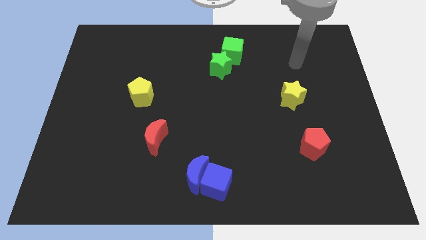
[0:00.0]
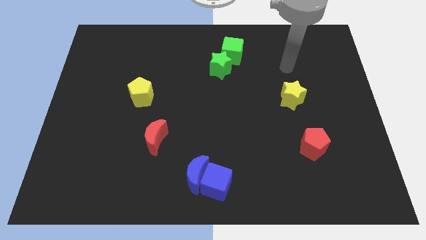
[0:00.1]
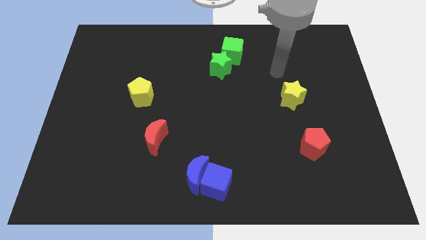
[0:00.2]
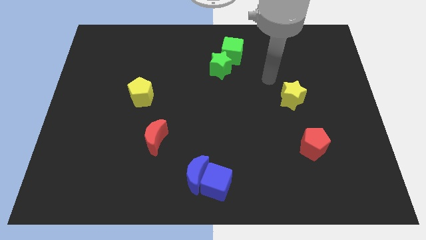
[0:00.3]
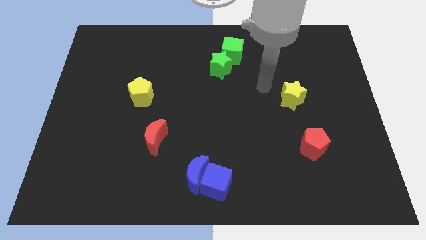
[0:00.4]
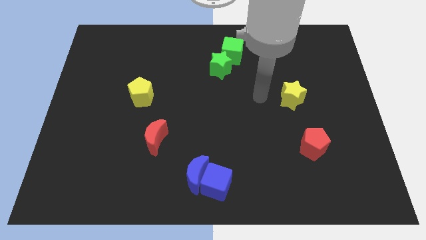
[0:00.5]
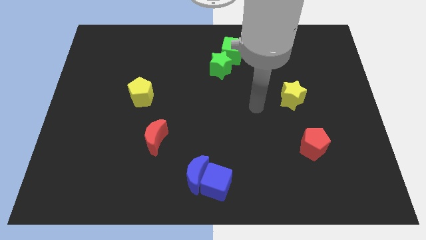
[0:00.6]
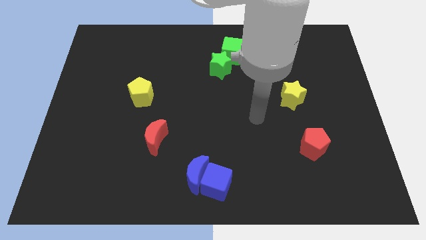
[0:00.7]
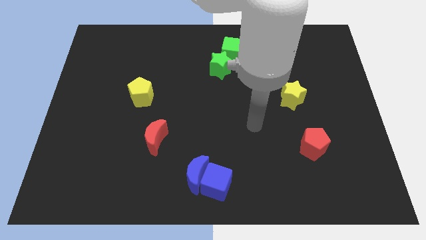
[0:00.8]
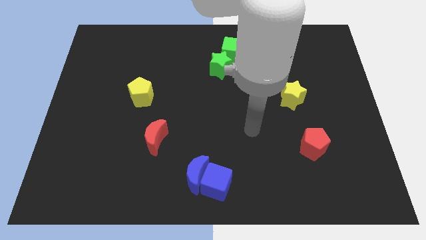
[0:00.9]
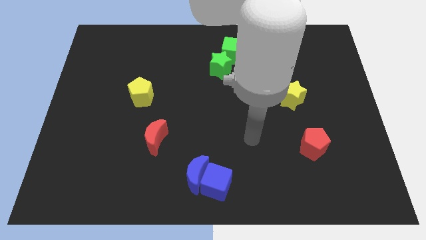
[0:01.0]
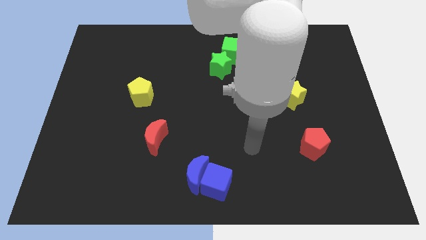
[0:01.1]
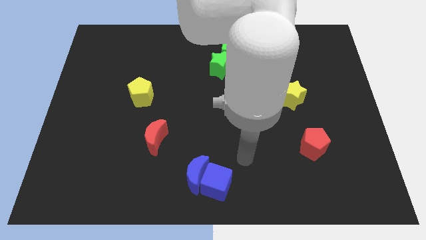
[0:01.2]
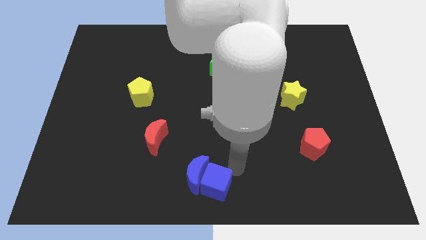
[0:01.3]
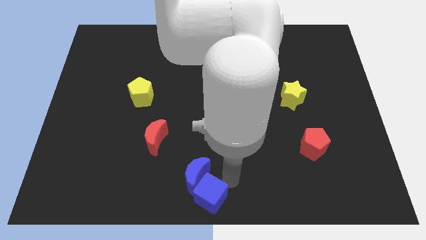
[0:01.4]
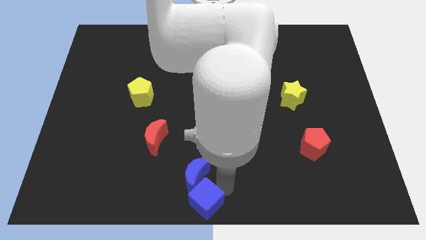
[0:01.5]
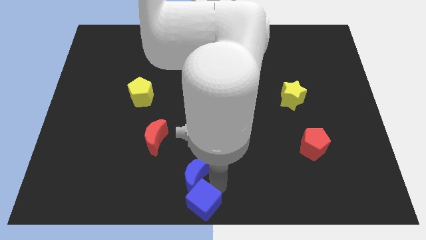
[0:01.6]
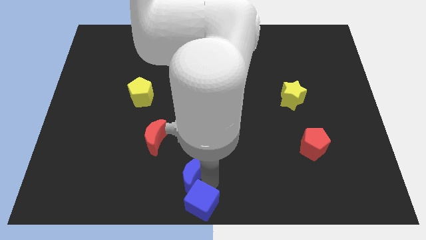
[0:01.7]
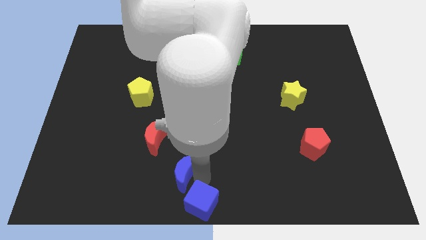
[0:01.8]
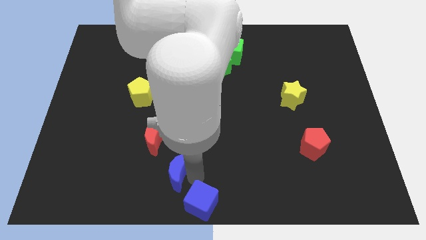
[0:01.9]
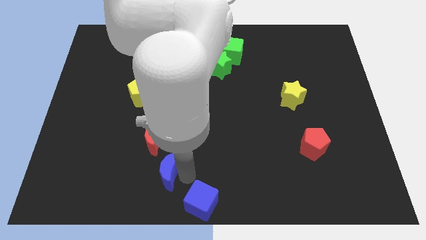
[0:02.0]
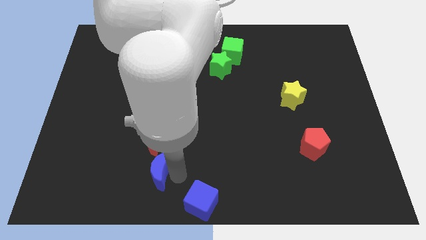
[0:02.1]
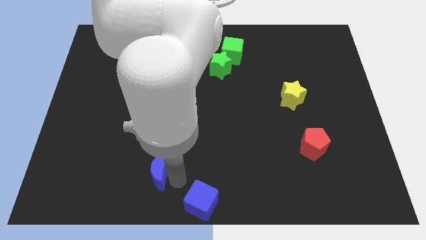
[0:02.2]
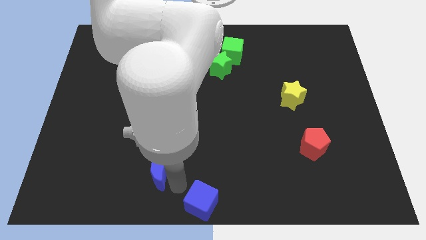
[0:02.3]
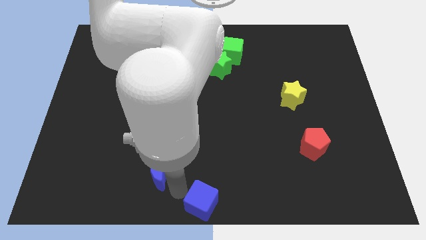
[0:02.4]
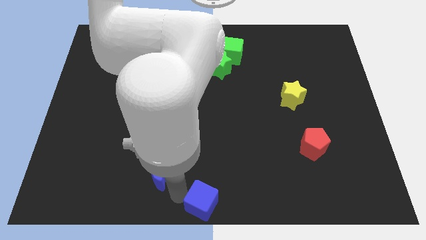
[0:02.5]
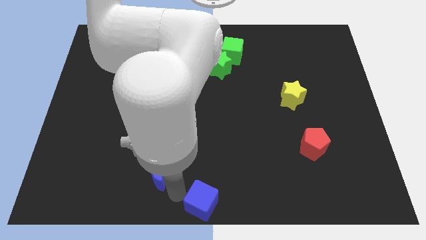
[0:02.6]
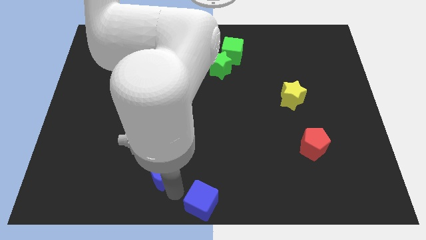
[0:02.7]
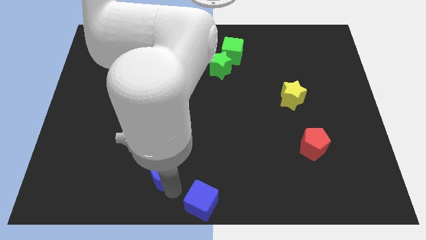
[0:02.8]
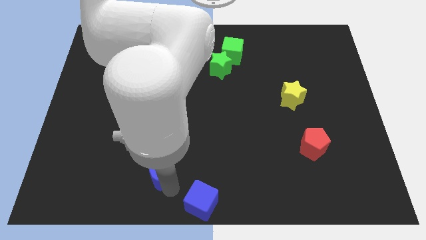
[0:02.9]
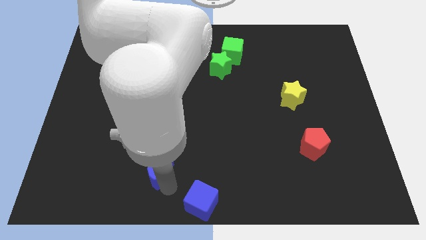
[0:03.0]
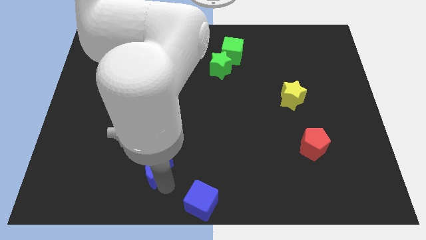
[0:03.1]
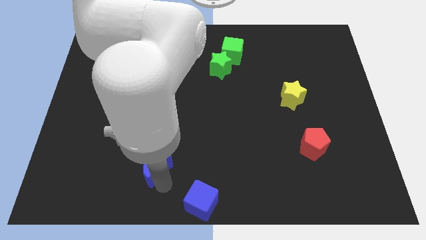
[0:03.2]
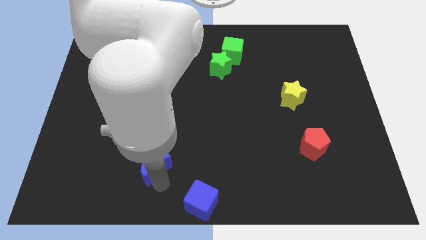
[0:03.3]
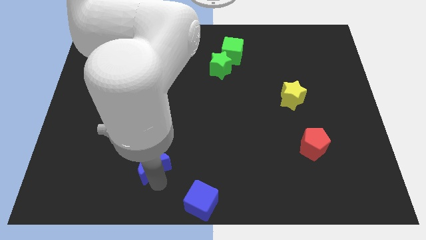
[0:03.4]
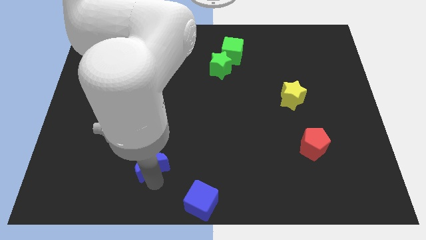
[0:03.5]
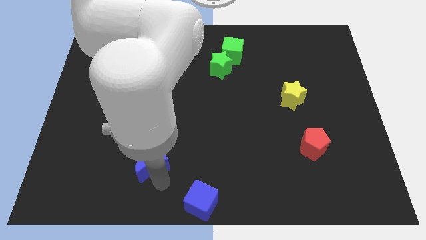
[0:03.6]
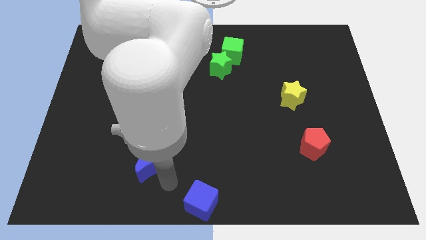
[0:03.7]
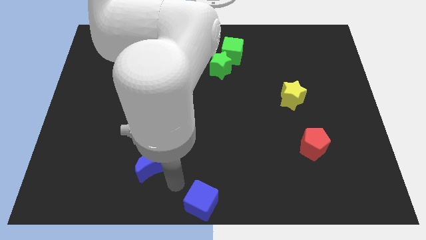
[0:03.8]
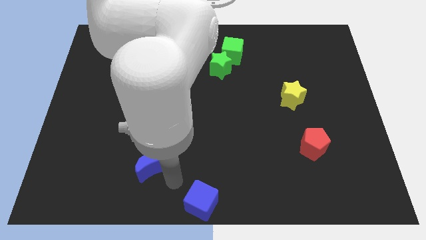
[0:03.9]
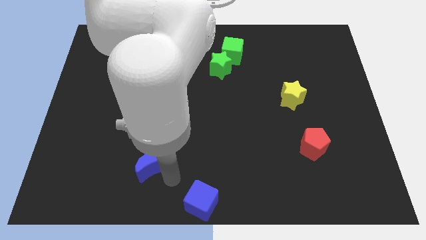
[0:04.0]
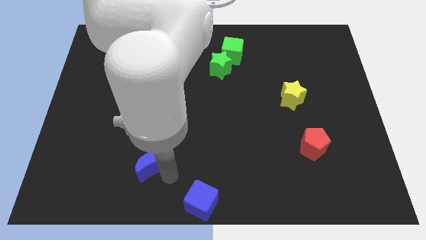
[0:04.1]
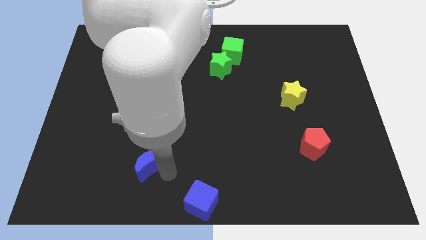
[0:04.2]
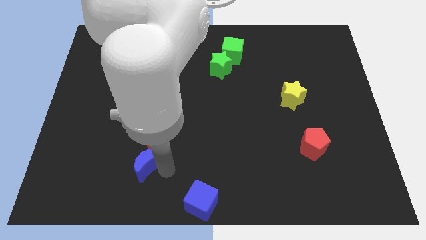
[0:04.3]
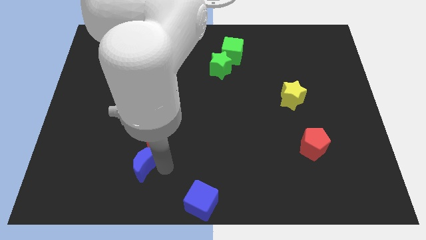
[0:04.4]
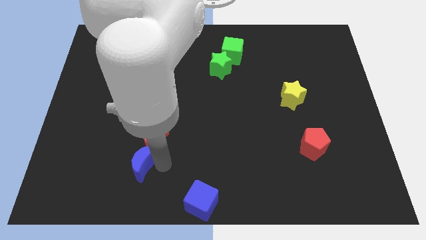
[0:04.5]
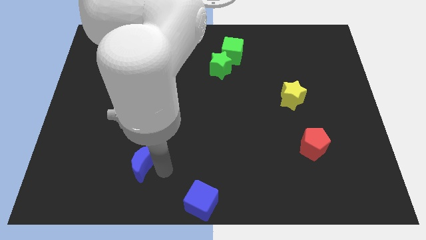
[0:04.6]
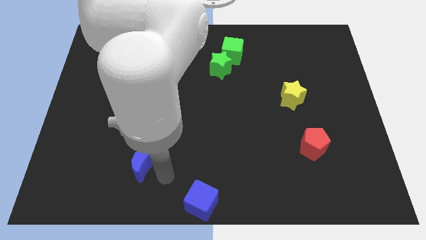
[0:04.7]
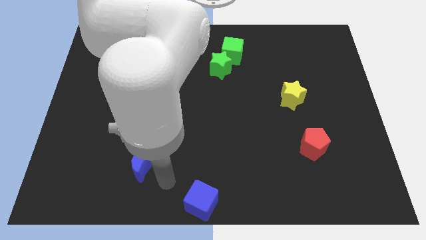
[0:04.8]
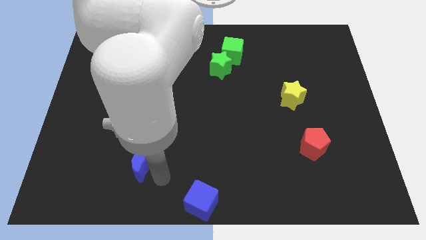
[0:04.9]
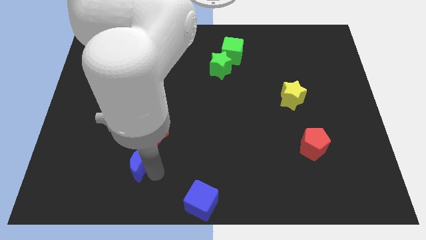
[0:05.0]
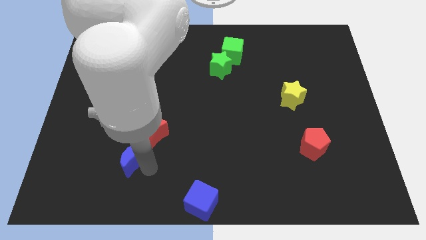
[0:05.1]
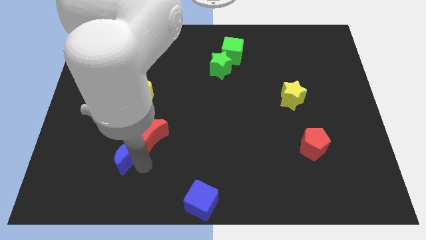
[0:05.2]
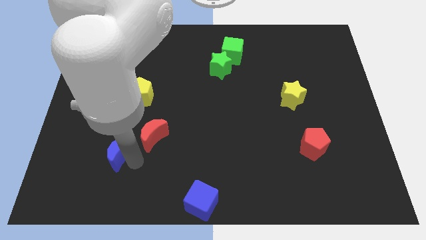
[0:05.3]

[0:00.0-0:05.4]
push the blue moon to the left side of the red moon

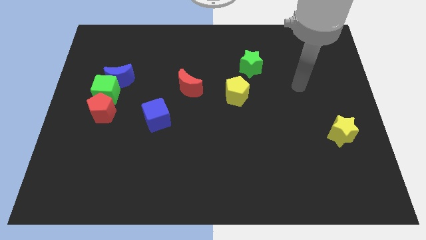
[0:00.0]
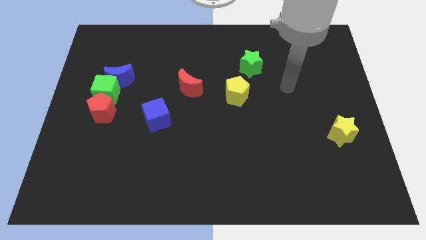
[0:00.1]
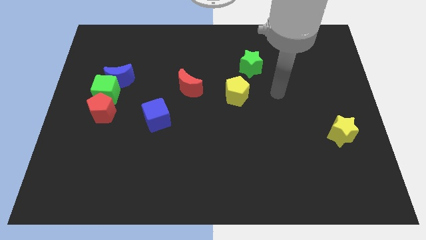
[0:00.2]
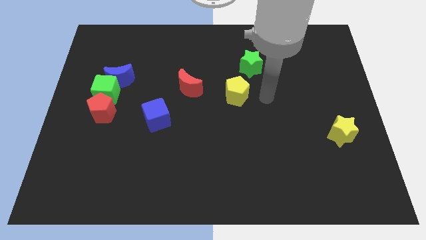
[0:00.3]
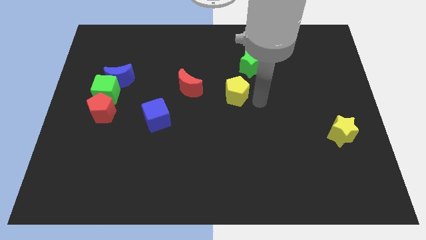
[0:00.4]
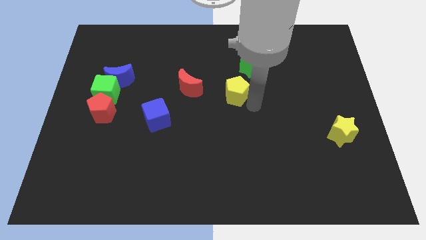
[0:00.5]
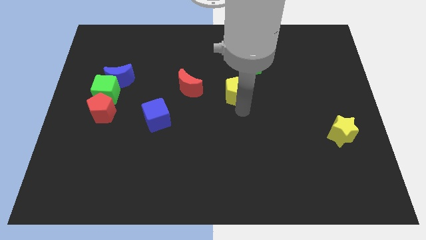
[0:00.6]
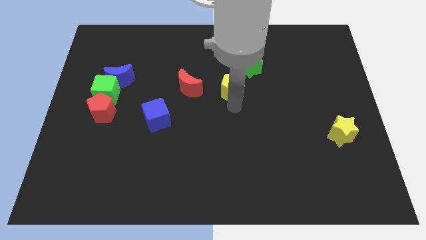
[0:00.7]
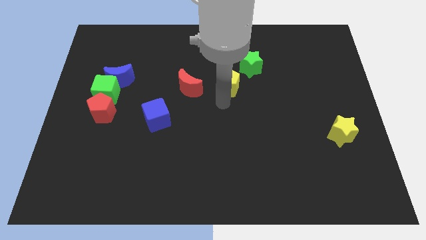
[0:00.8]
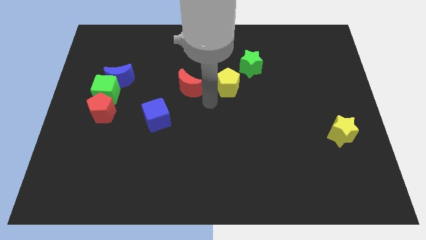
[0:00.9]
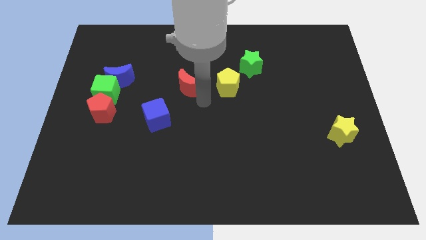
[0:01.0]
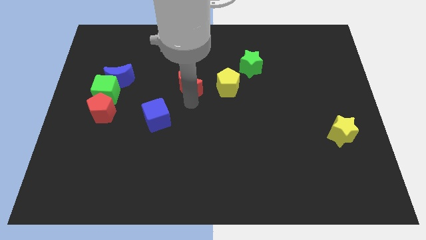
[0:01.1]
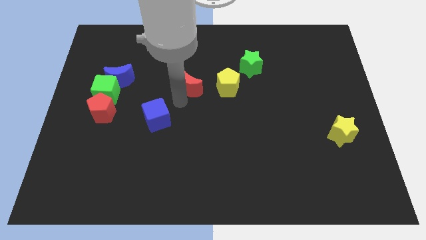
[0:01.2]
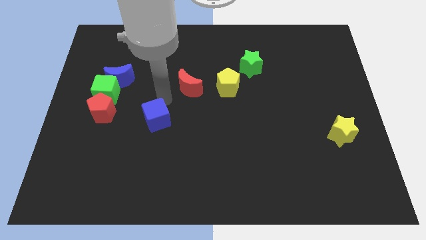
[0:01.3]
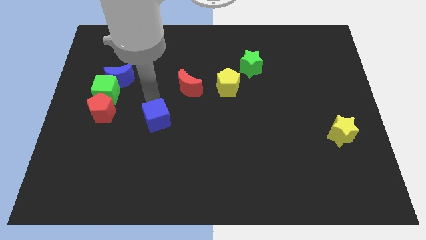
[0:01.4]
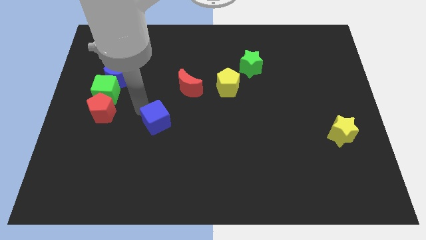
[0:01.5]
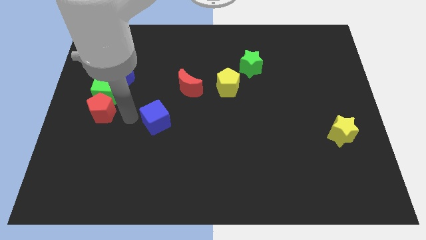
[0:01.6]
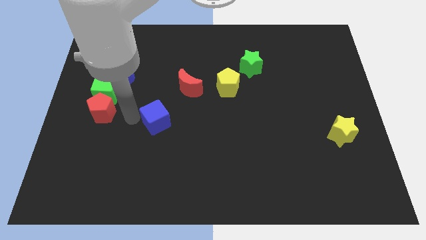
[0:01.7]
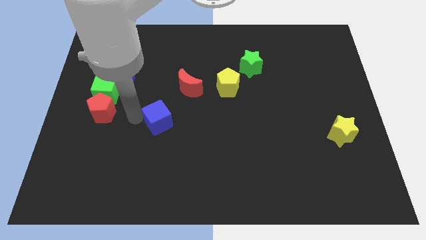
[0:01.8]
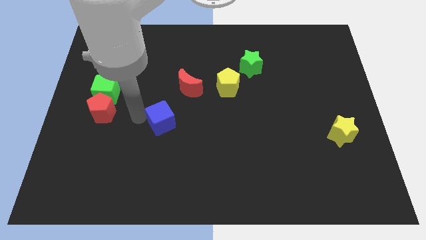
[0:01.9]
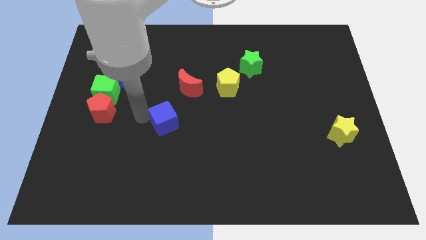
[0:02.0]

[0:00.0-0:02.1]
push the blue cube below the red moon
